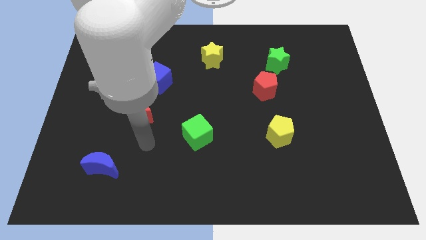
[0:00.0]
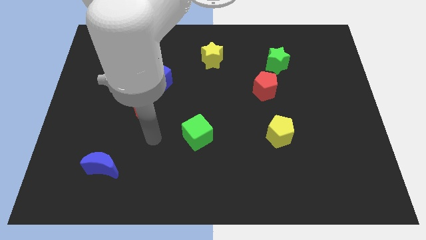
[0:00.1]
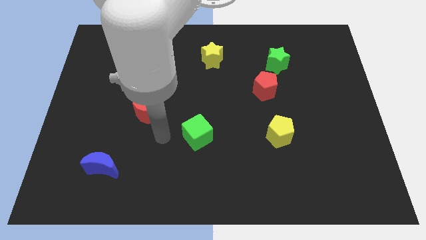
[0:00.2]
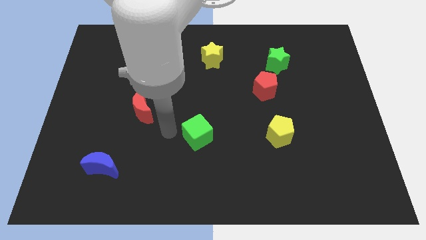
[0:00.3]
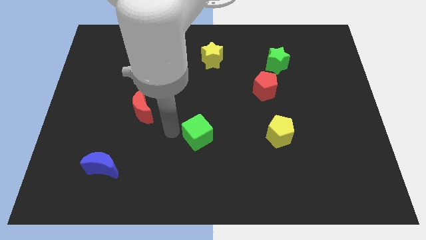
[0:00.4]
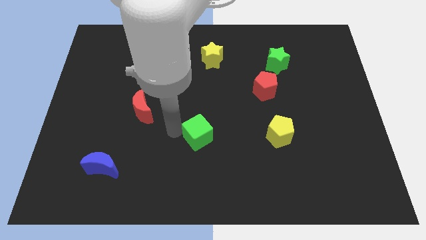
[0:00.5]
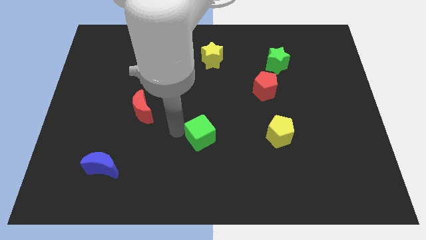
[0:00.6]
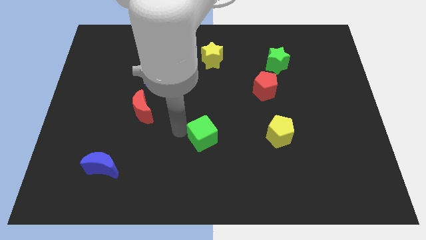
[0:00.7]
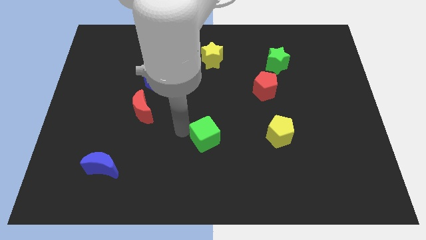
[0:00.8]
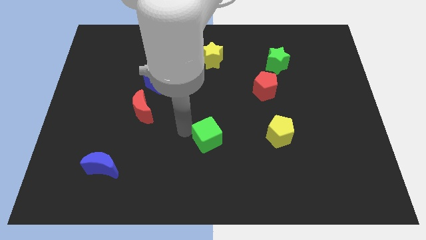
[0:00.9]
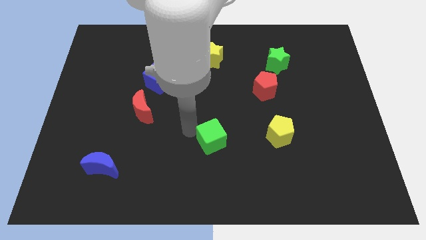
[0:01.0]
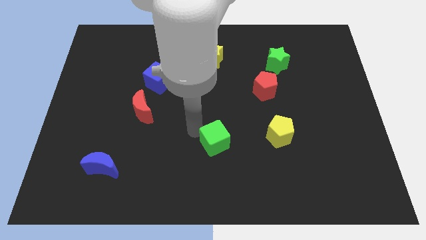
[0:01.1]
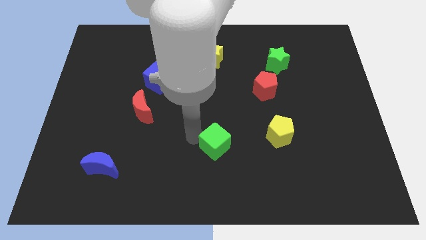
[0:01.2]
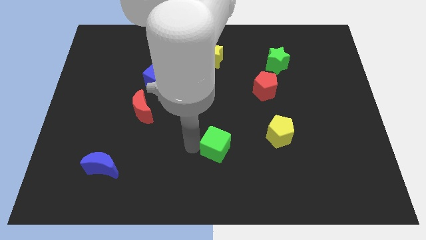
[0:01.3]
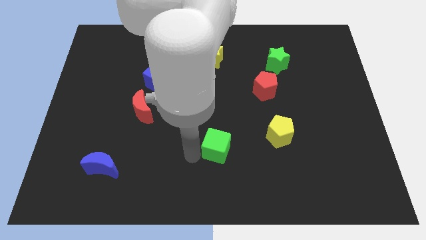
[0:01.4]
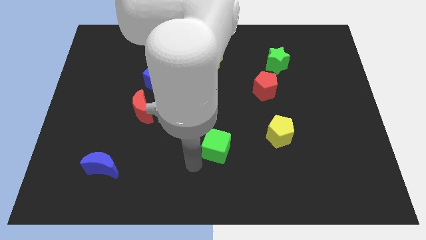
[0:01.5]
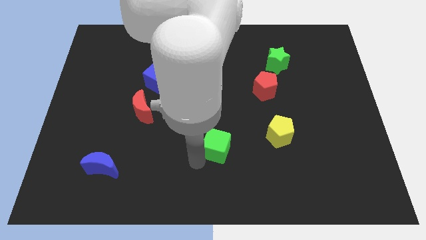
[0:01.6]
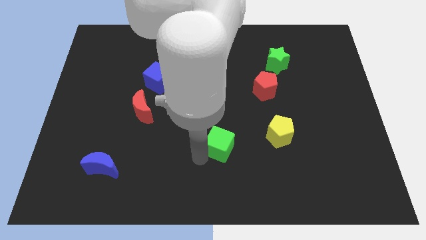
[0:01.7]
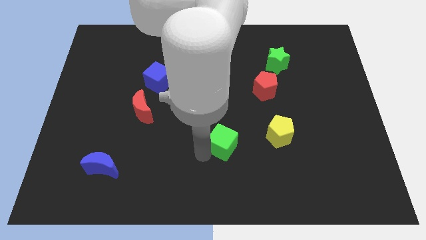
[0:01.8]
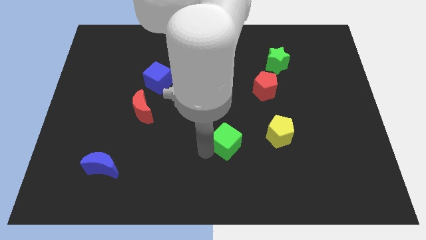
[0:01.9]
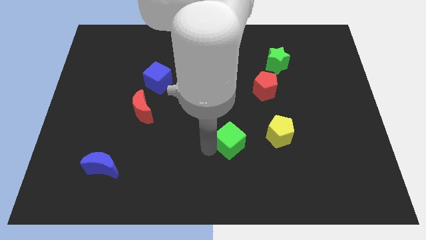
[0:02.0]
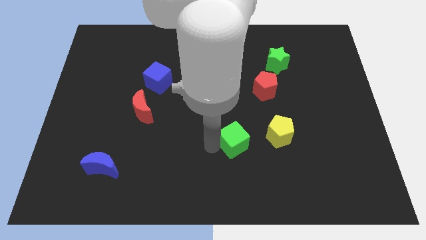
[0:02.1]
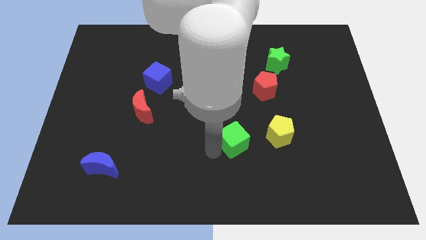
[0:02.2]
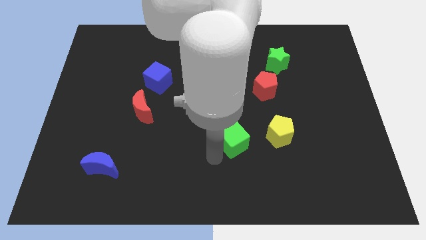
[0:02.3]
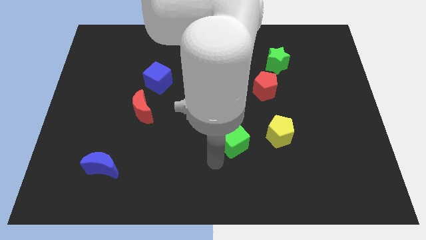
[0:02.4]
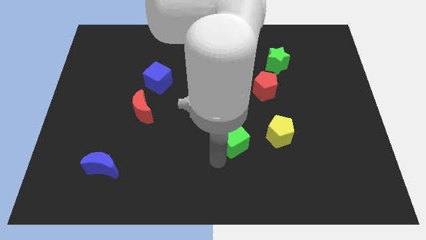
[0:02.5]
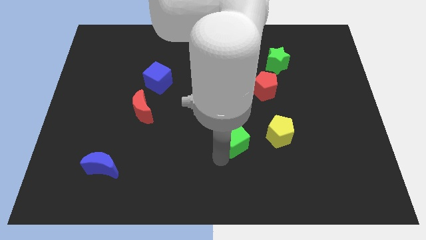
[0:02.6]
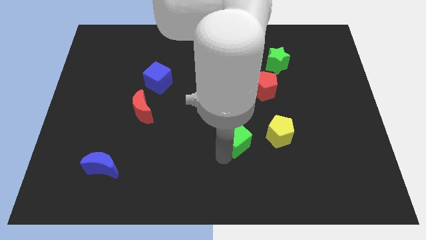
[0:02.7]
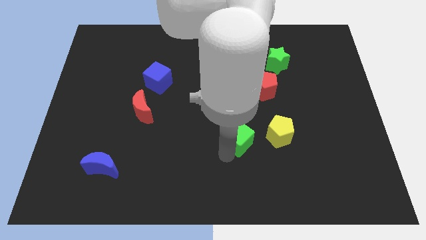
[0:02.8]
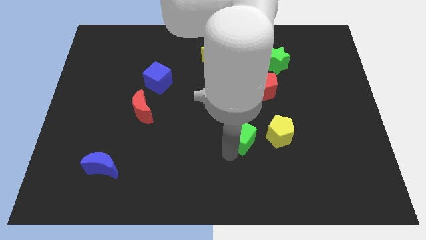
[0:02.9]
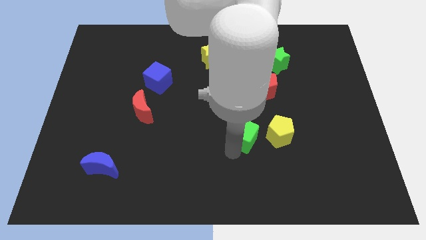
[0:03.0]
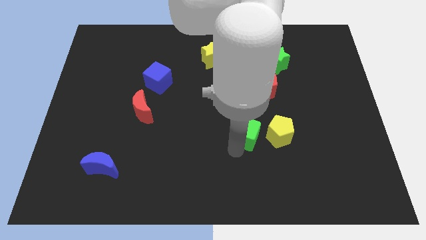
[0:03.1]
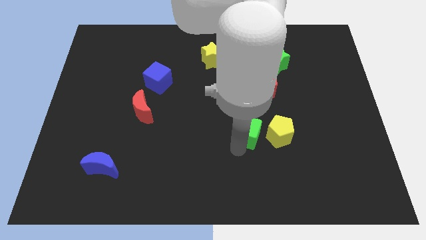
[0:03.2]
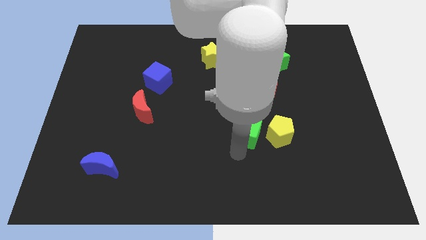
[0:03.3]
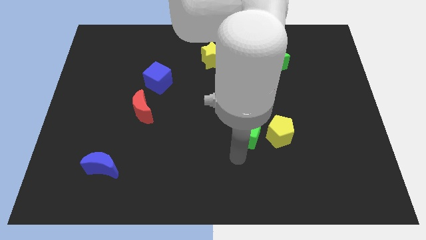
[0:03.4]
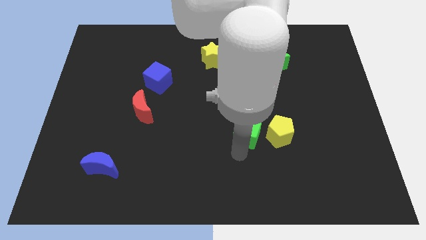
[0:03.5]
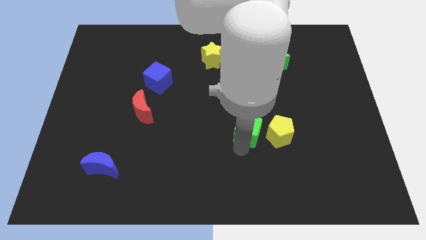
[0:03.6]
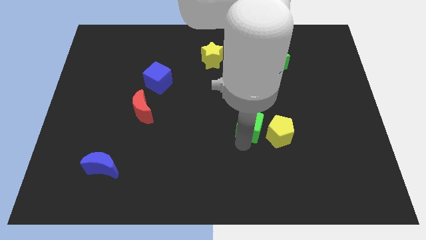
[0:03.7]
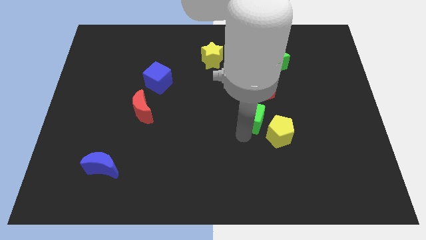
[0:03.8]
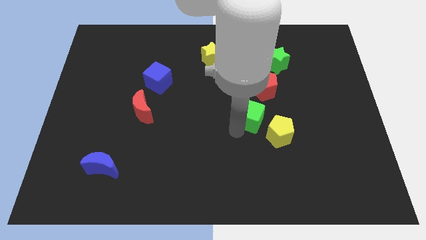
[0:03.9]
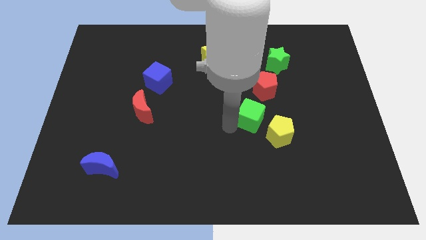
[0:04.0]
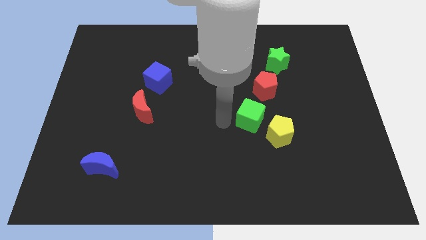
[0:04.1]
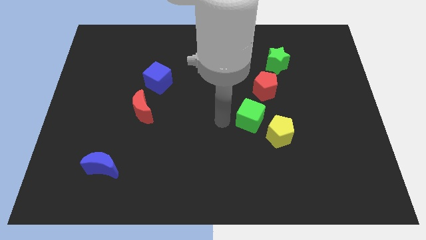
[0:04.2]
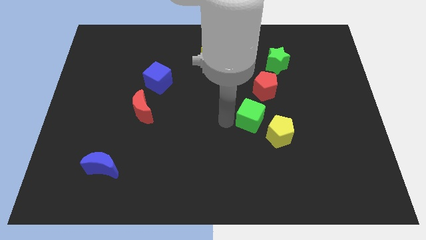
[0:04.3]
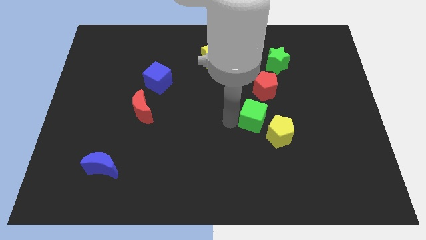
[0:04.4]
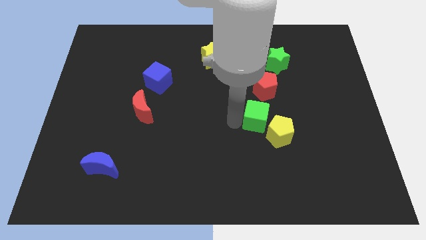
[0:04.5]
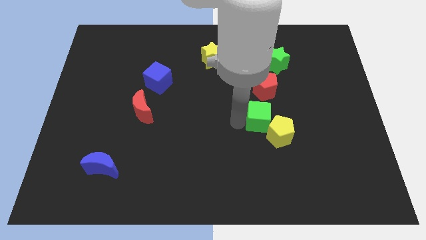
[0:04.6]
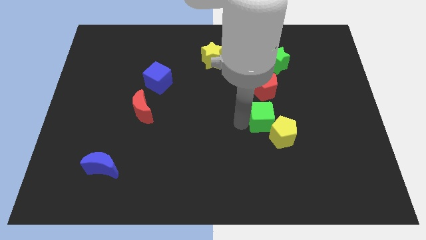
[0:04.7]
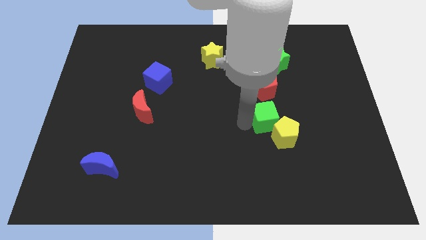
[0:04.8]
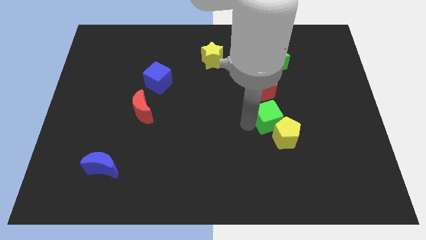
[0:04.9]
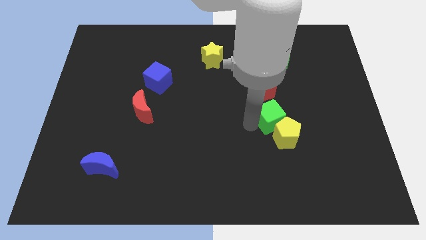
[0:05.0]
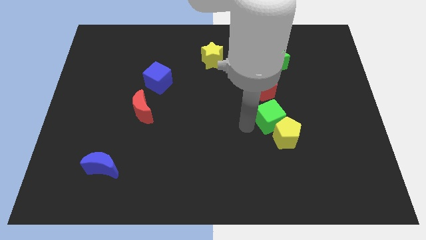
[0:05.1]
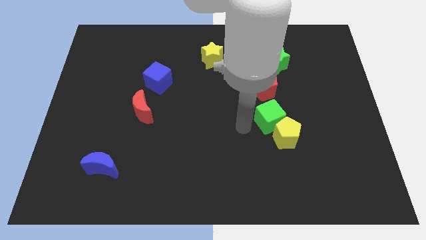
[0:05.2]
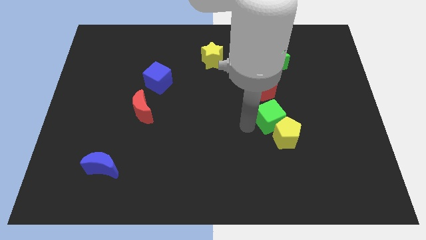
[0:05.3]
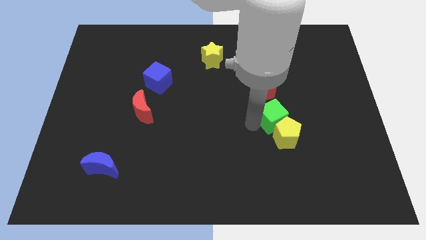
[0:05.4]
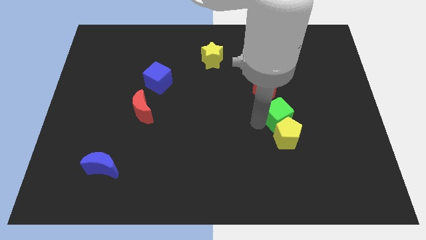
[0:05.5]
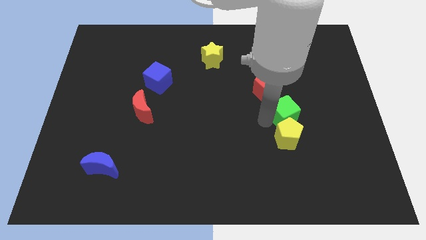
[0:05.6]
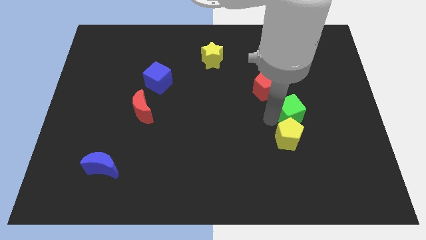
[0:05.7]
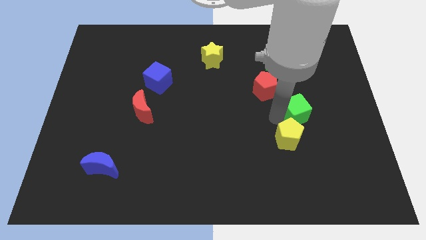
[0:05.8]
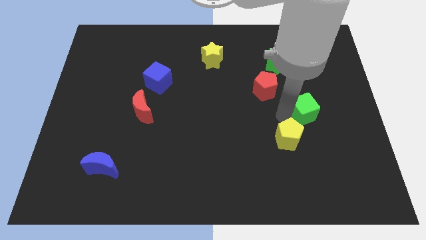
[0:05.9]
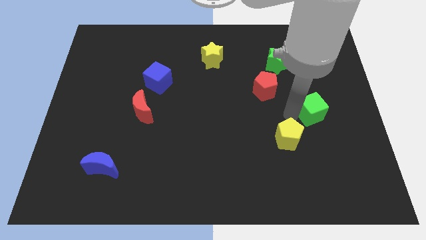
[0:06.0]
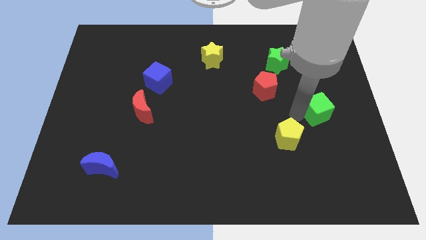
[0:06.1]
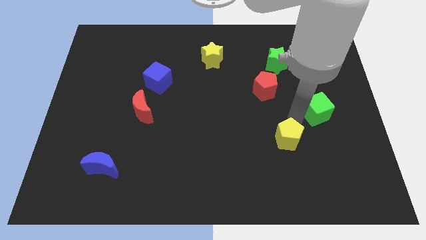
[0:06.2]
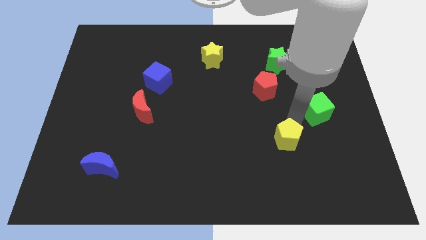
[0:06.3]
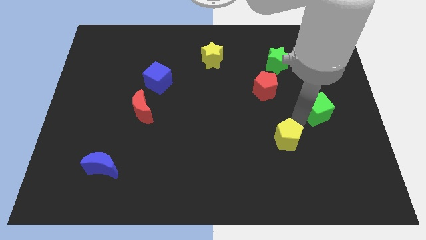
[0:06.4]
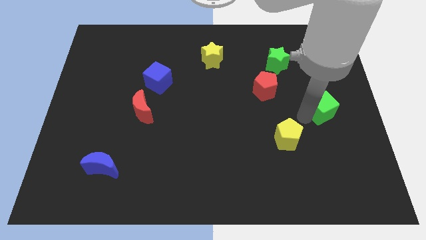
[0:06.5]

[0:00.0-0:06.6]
put the green cube to the center right
